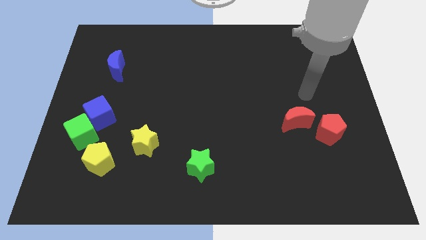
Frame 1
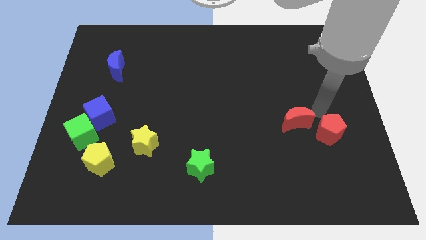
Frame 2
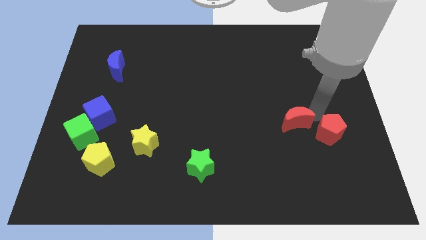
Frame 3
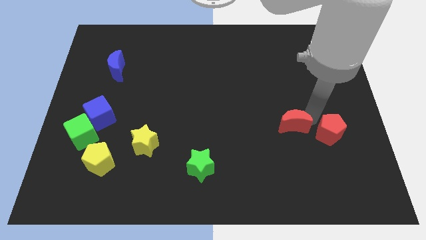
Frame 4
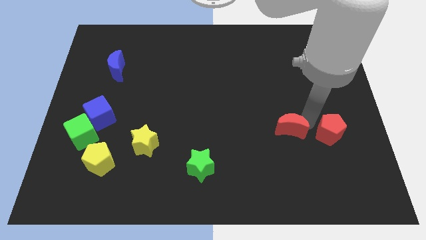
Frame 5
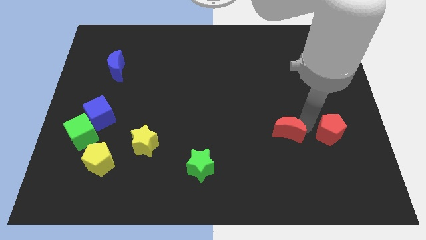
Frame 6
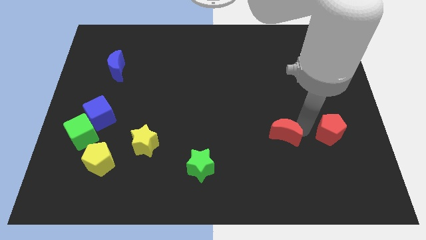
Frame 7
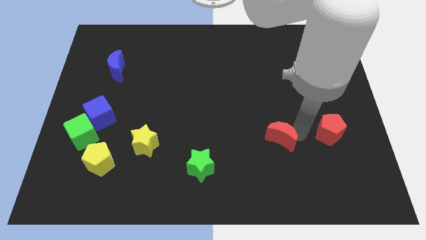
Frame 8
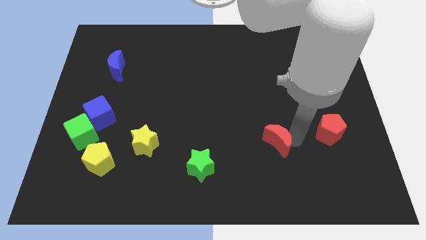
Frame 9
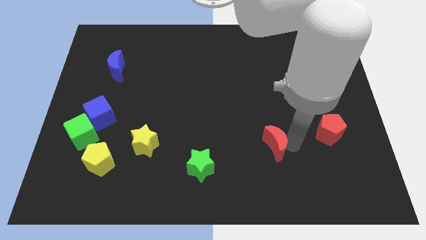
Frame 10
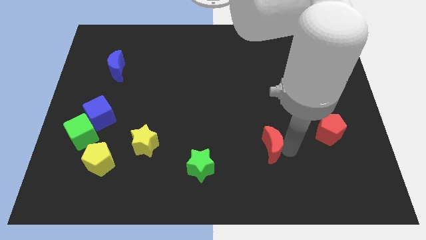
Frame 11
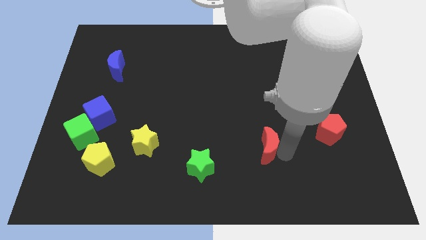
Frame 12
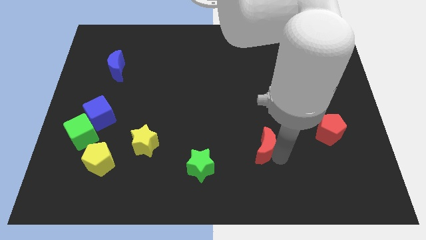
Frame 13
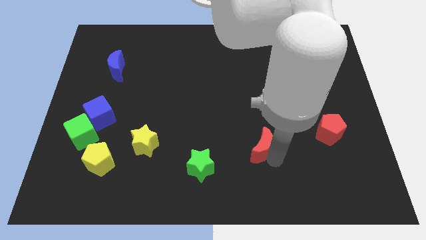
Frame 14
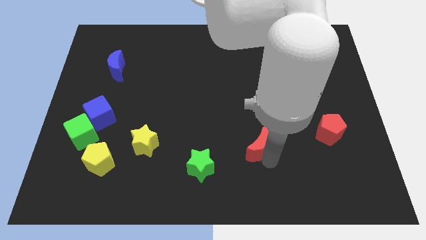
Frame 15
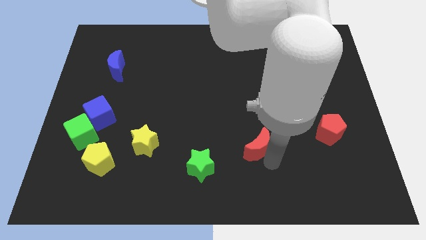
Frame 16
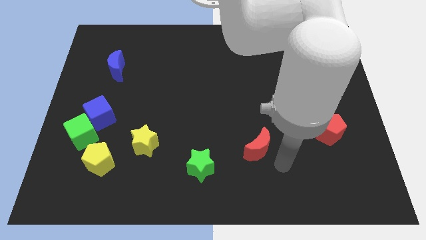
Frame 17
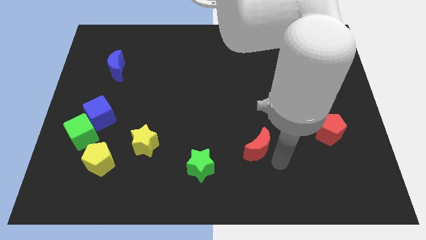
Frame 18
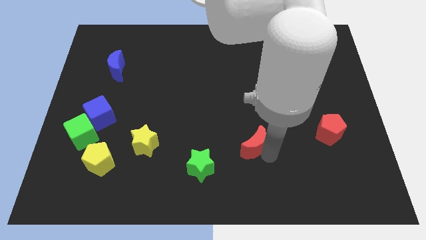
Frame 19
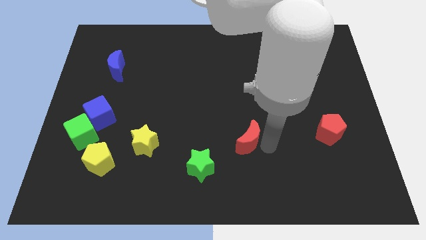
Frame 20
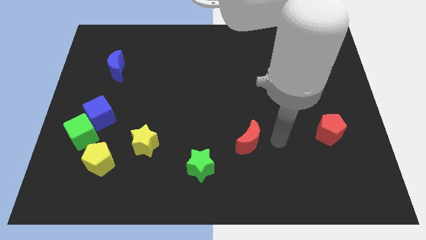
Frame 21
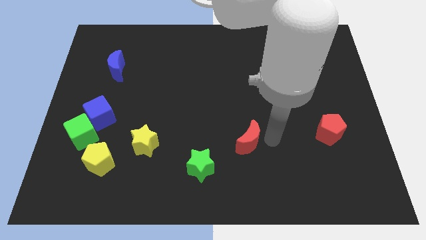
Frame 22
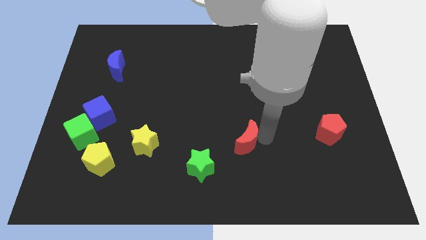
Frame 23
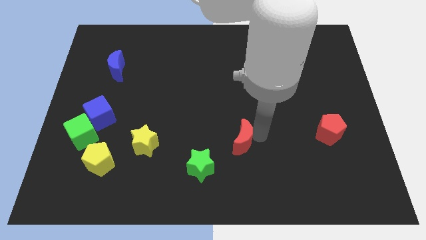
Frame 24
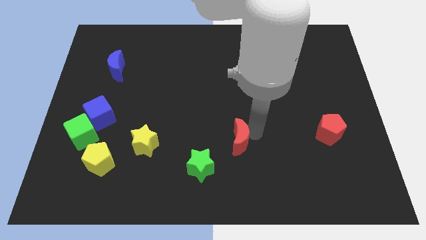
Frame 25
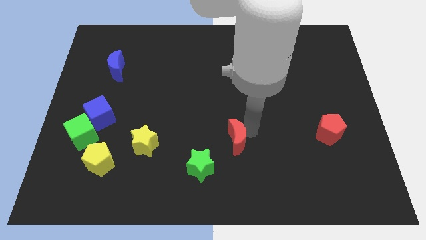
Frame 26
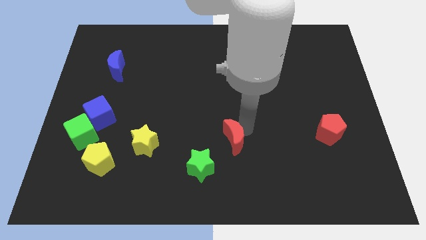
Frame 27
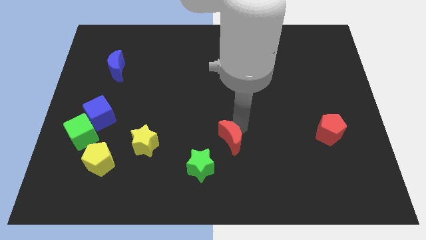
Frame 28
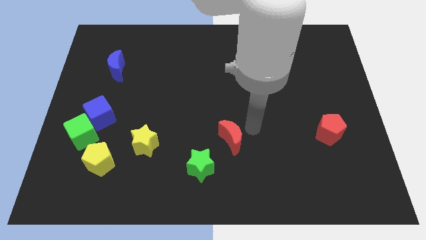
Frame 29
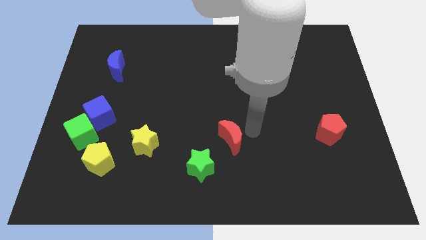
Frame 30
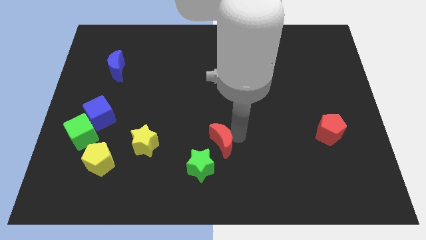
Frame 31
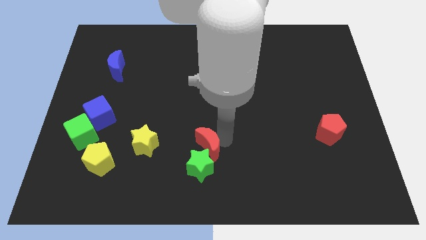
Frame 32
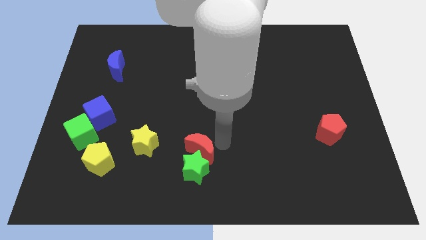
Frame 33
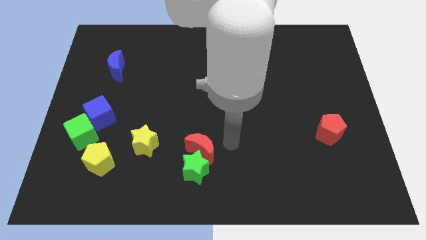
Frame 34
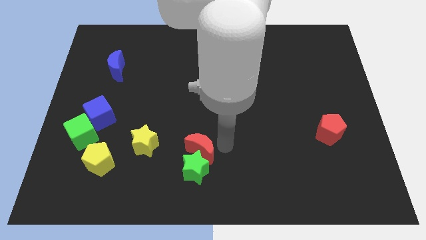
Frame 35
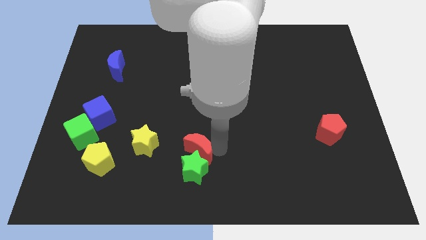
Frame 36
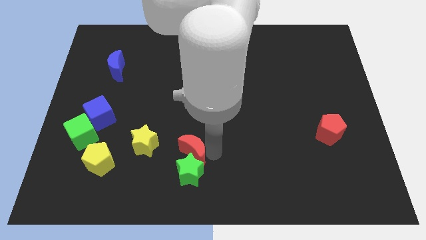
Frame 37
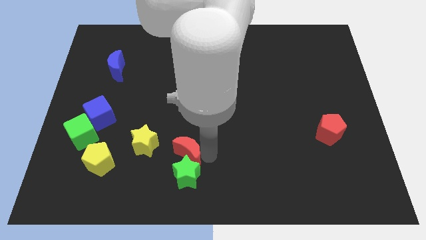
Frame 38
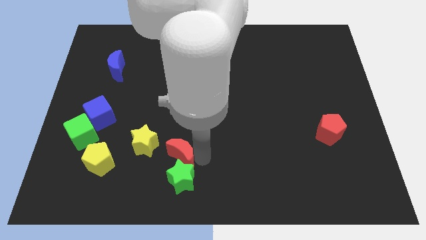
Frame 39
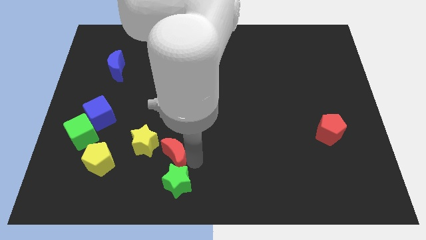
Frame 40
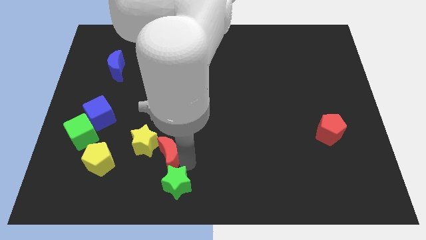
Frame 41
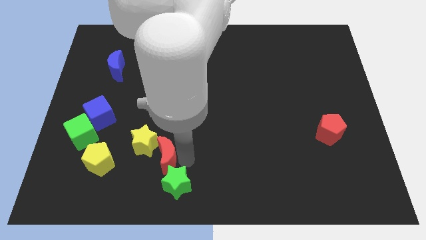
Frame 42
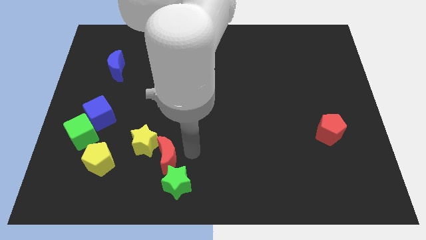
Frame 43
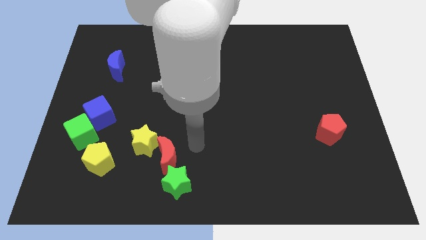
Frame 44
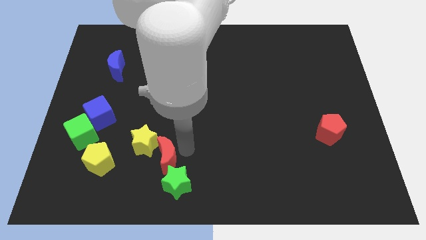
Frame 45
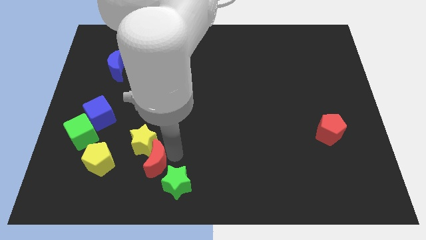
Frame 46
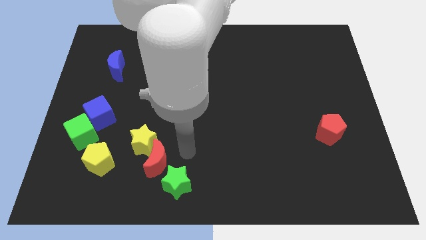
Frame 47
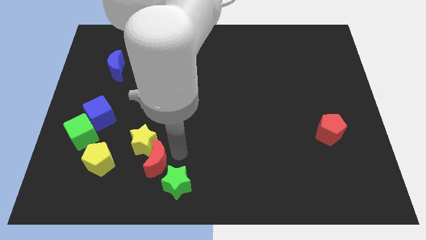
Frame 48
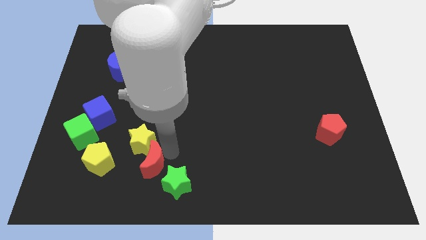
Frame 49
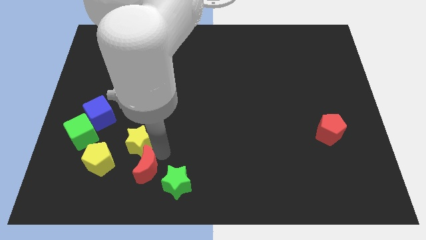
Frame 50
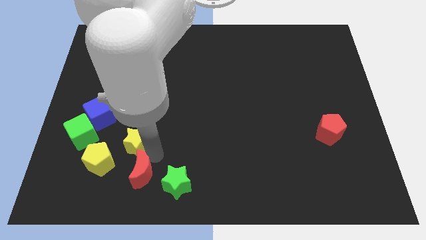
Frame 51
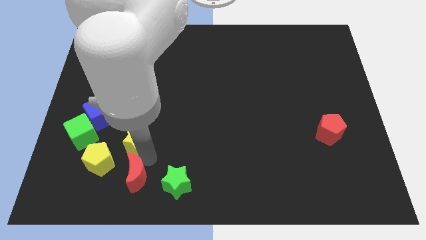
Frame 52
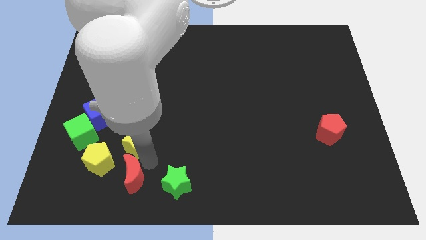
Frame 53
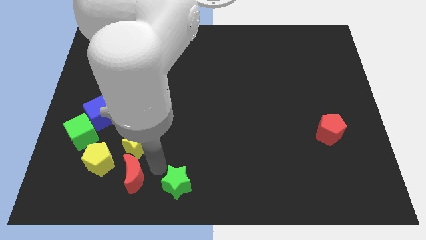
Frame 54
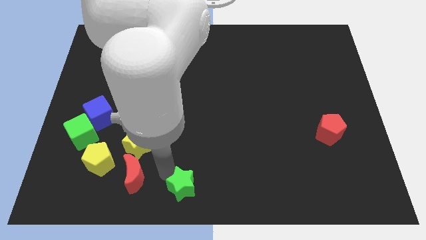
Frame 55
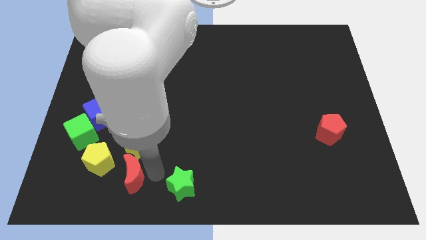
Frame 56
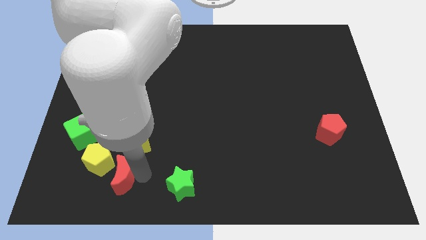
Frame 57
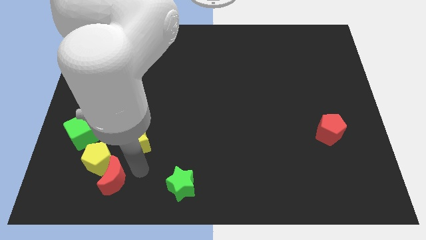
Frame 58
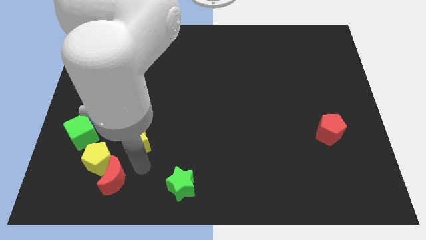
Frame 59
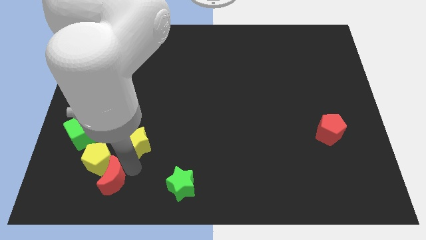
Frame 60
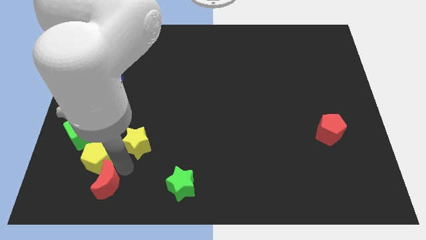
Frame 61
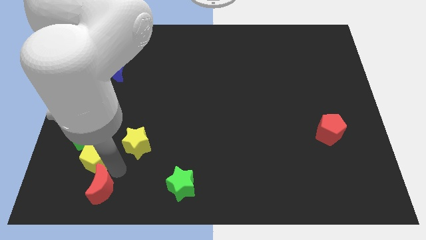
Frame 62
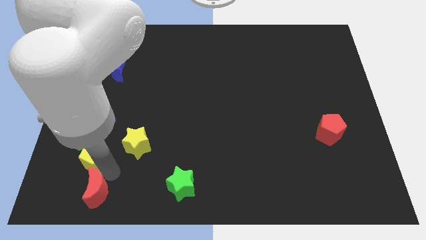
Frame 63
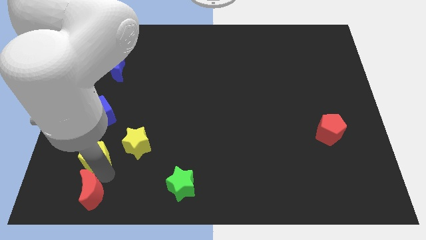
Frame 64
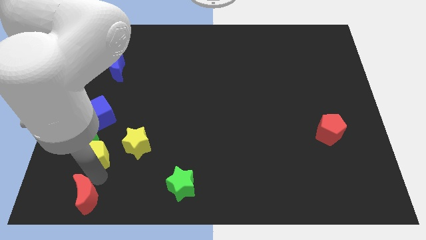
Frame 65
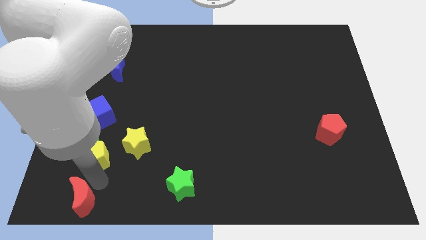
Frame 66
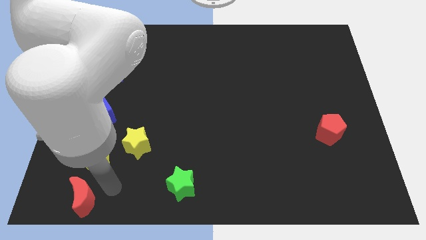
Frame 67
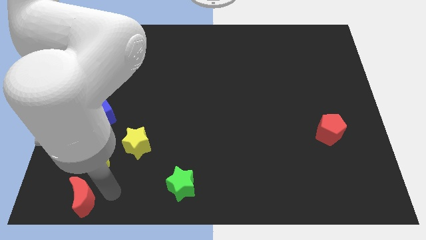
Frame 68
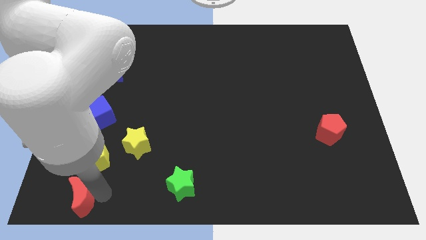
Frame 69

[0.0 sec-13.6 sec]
slide the red moon to the bottom left
